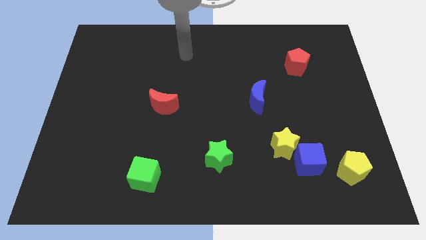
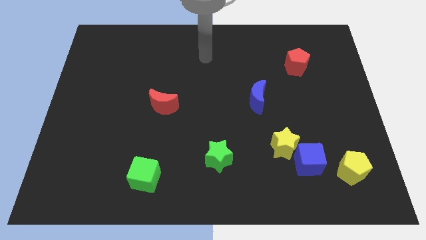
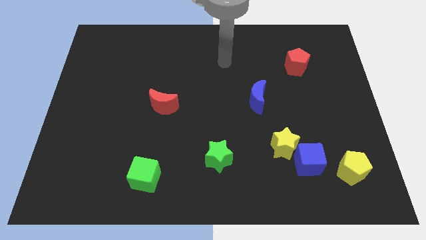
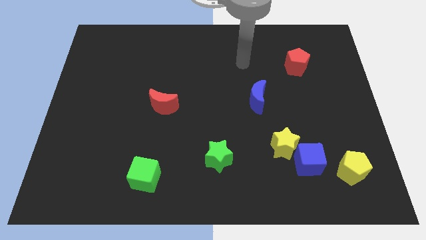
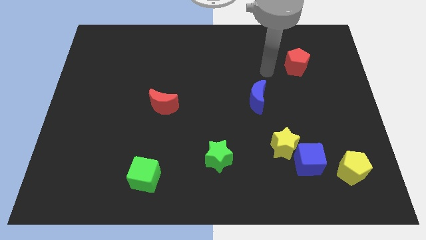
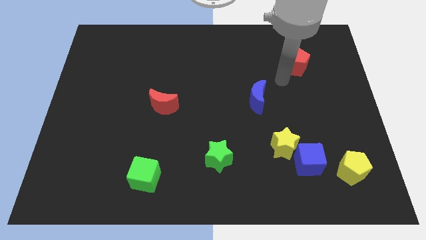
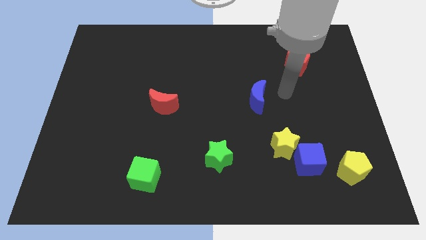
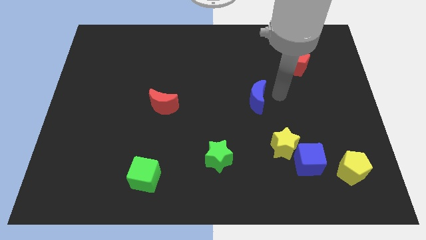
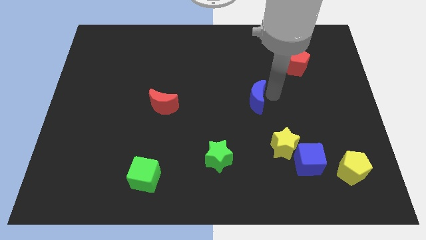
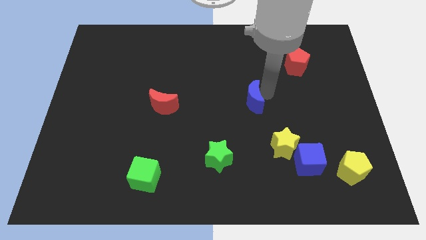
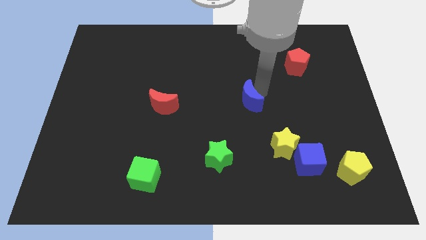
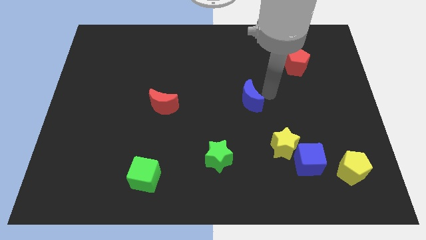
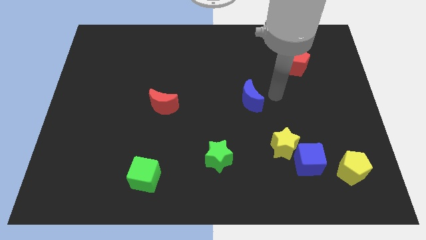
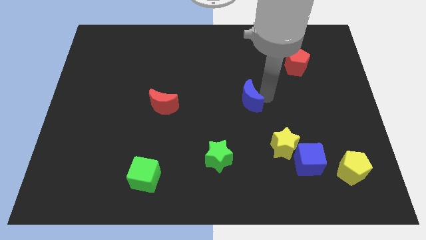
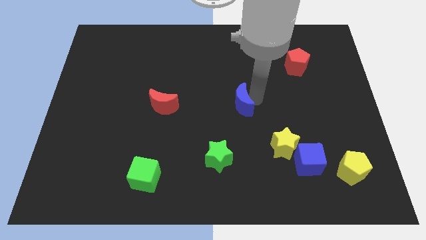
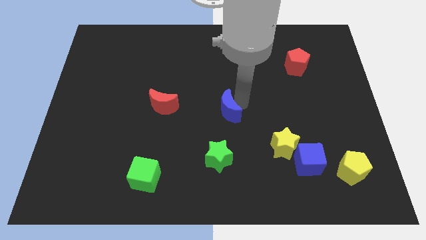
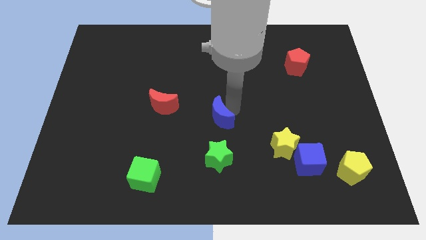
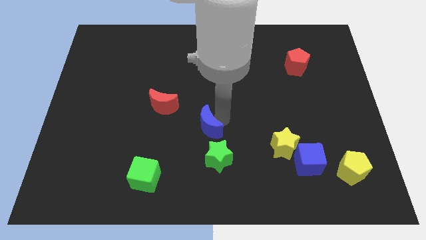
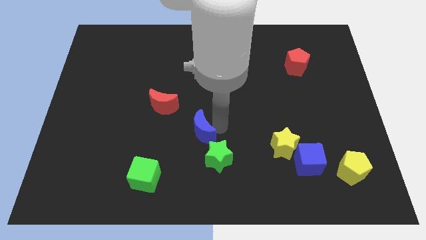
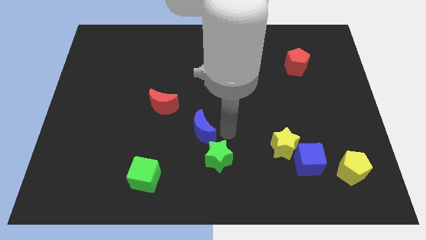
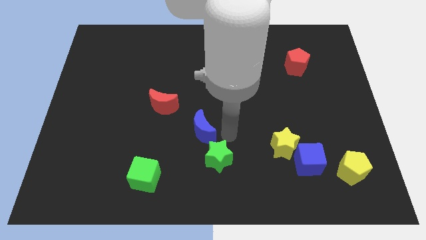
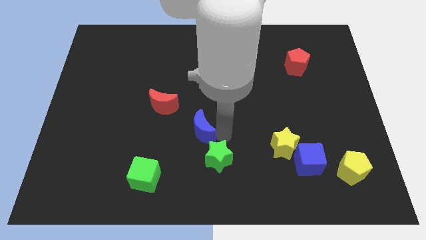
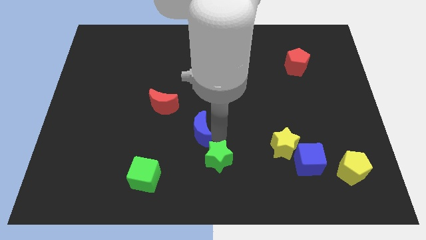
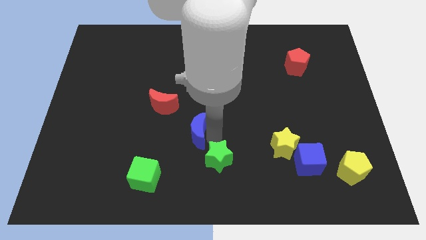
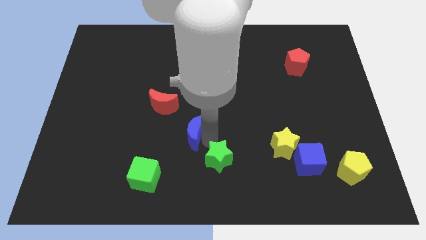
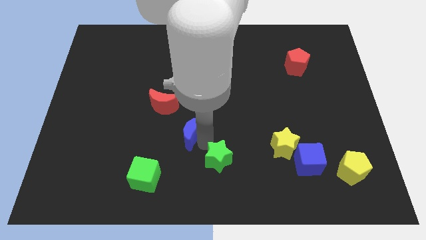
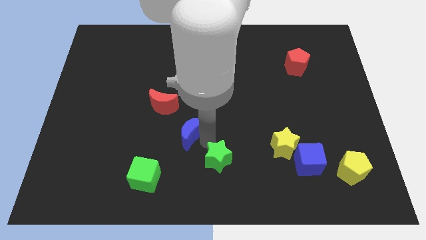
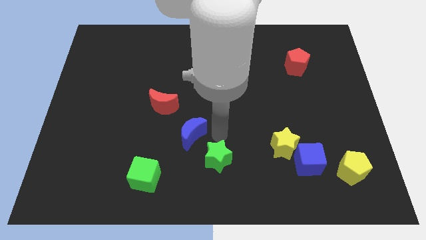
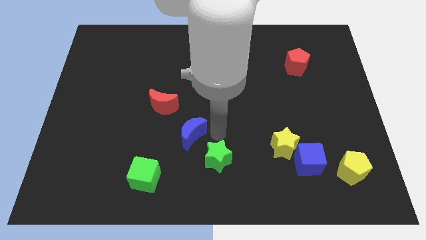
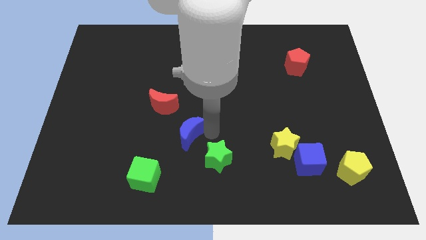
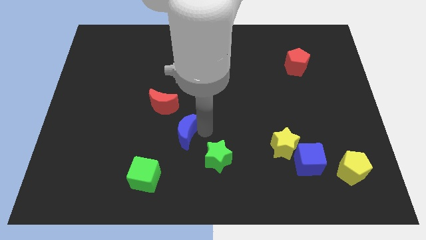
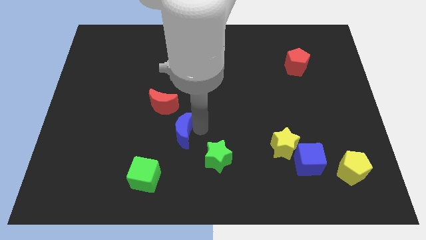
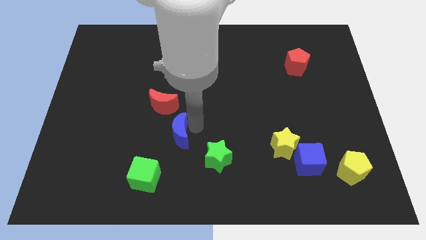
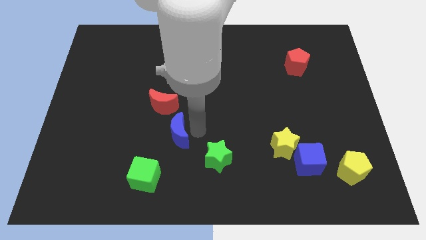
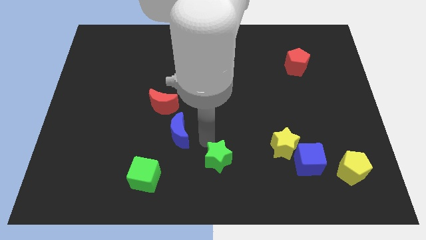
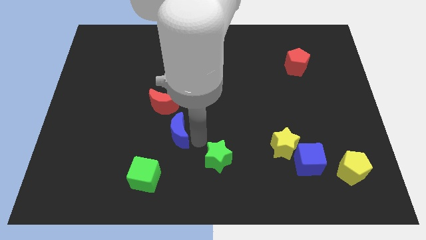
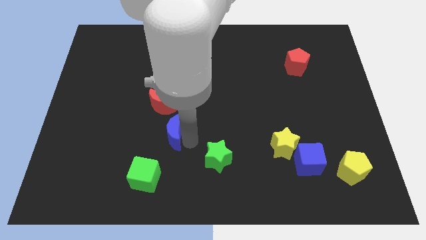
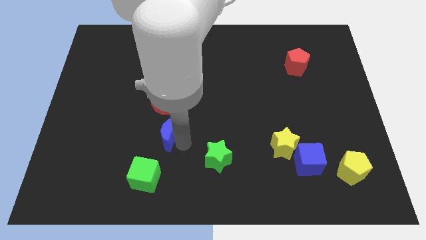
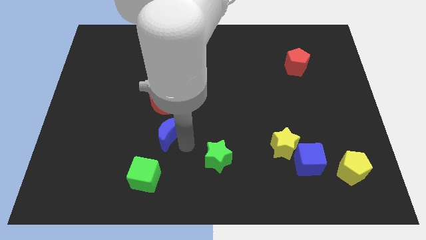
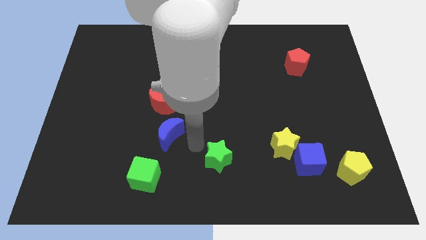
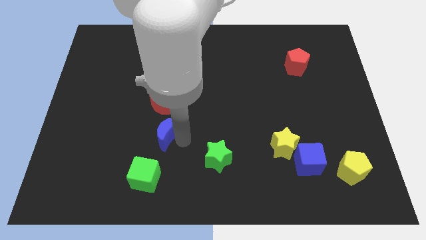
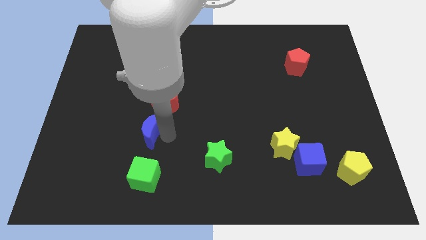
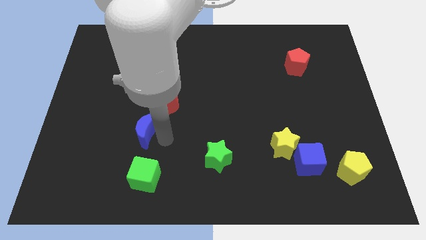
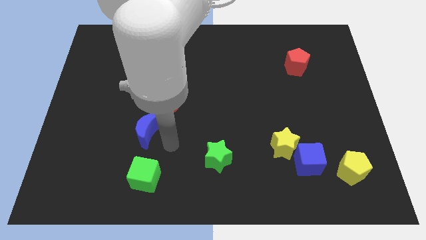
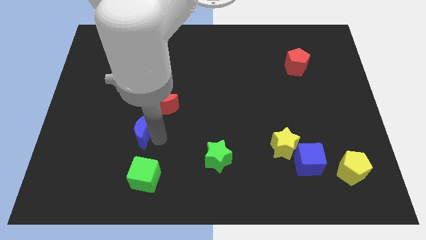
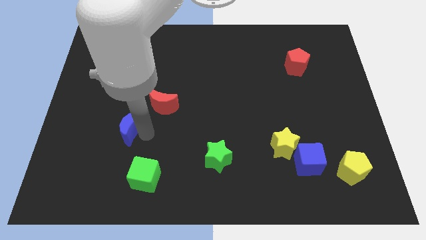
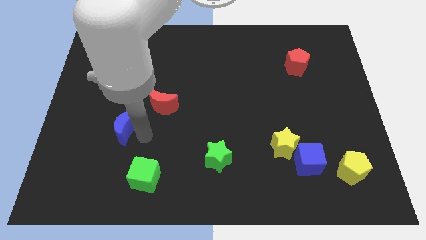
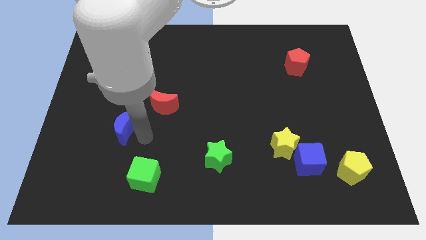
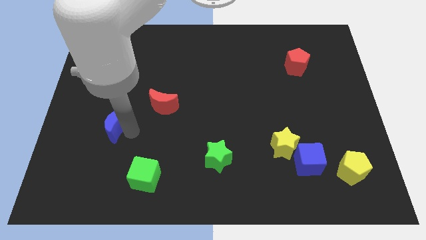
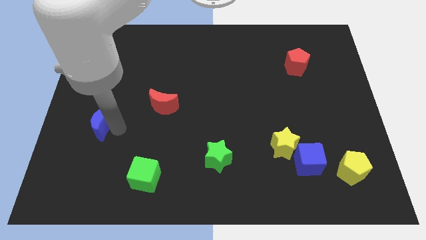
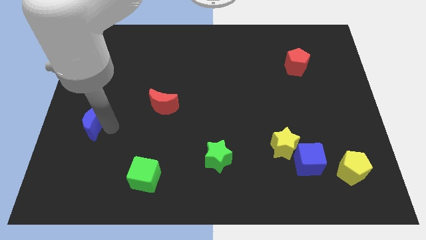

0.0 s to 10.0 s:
push the blue moon to the center left

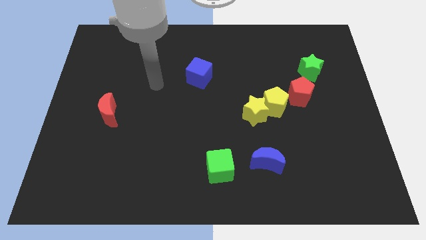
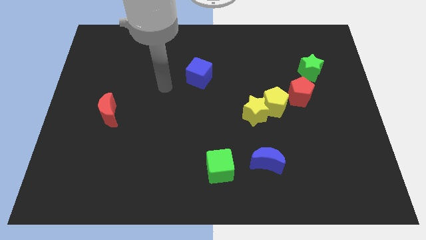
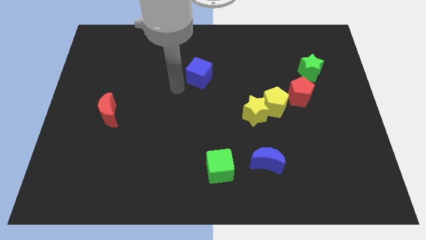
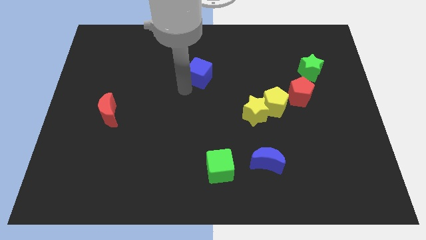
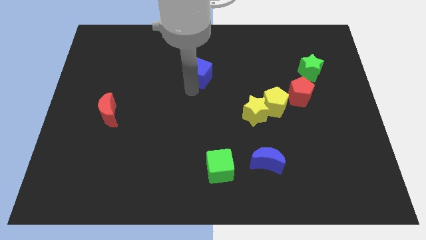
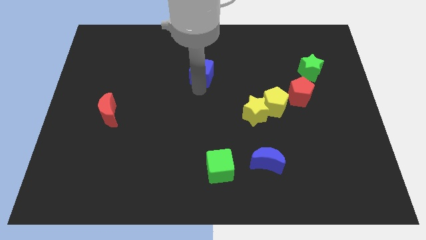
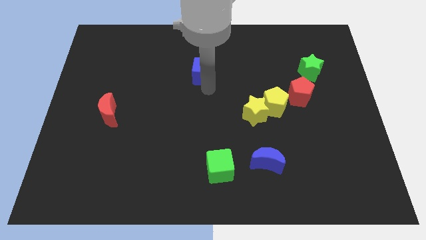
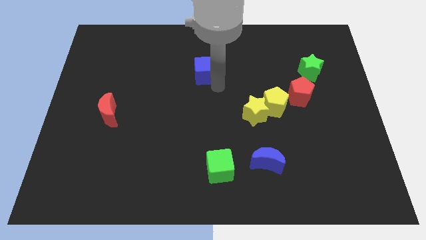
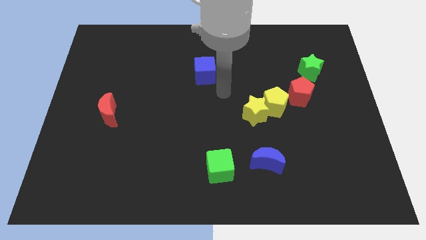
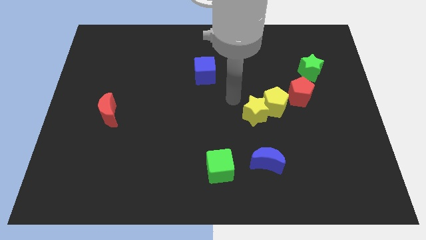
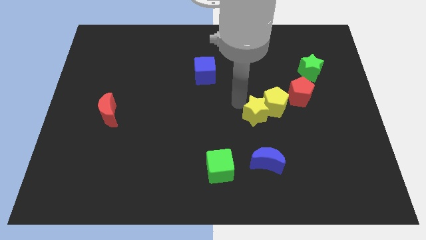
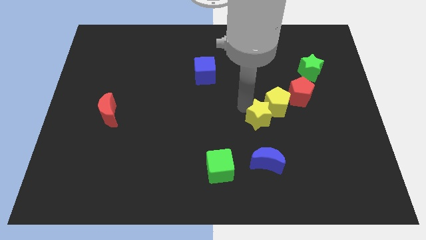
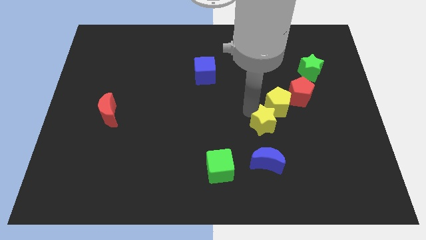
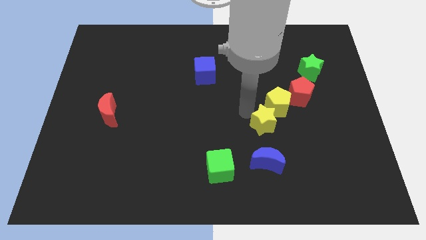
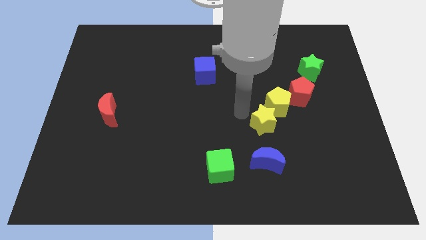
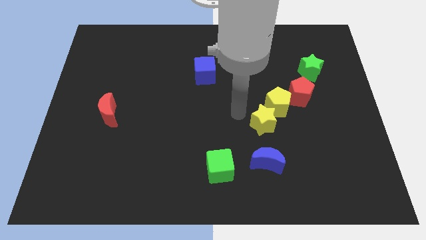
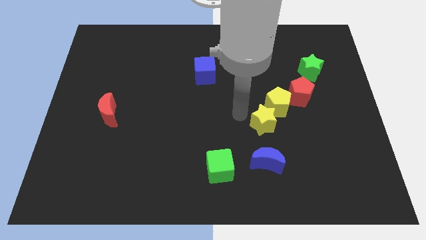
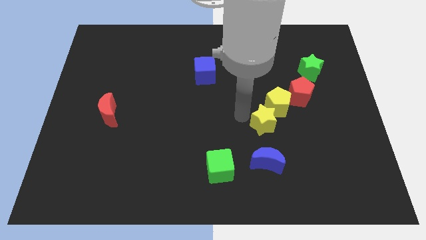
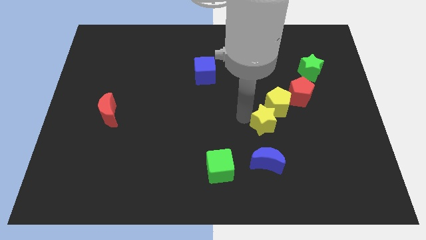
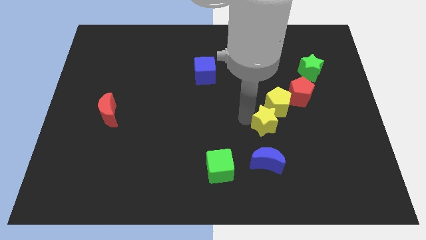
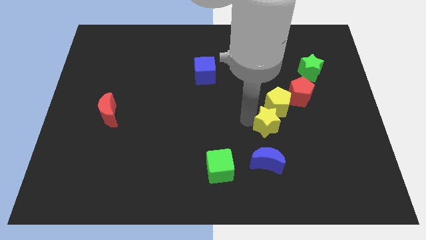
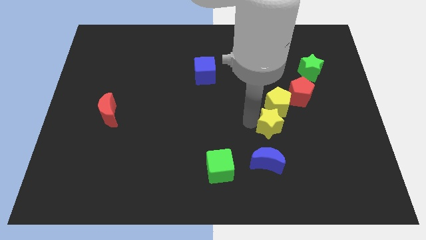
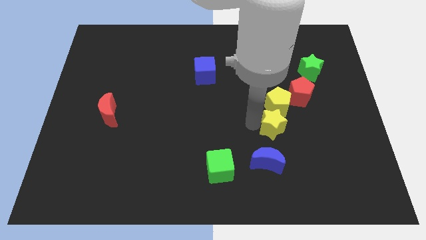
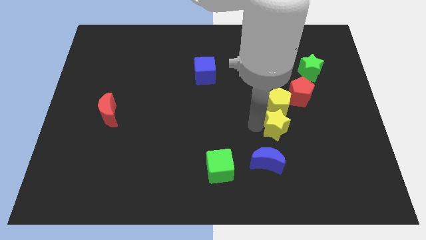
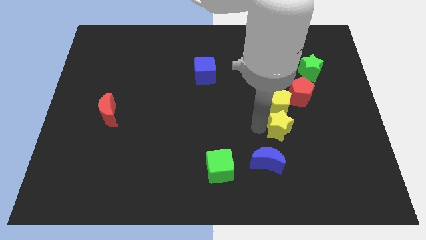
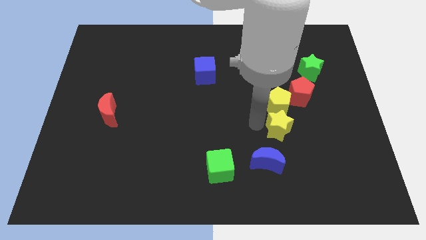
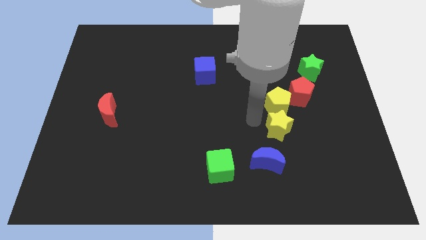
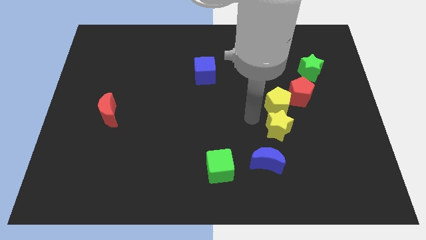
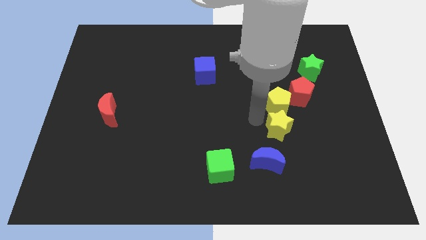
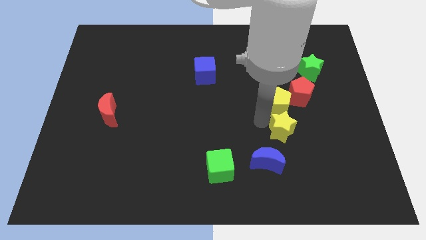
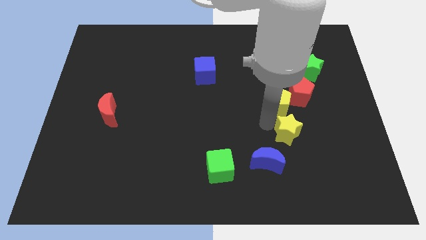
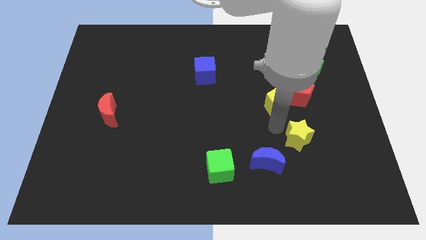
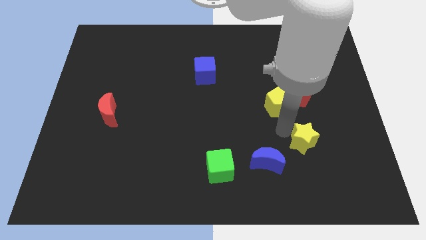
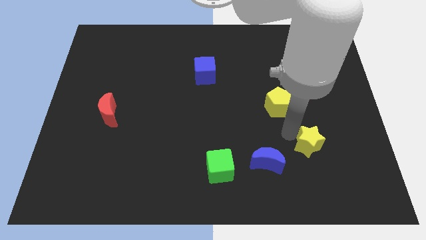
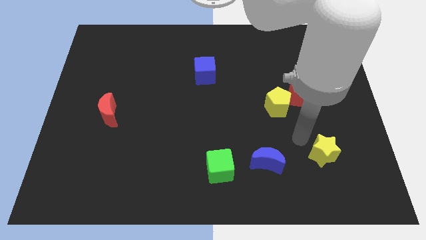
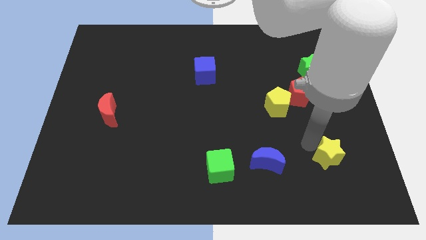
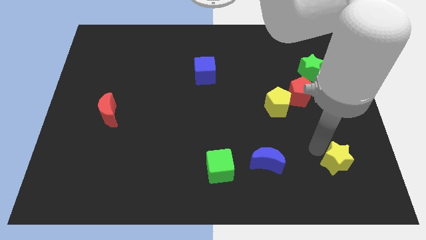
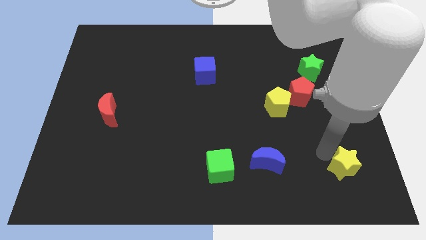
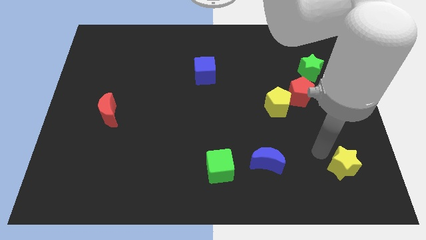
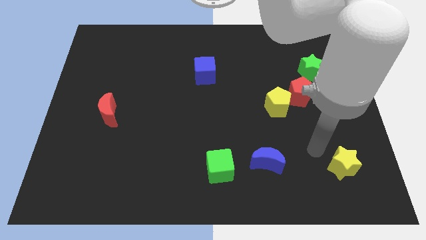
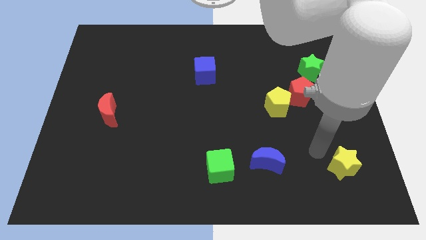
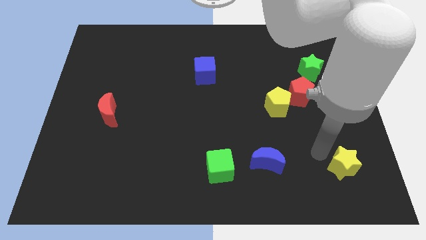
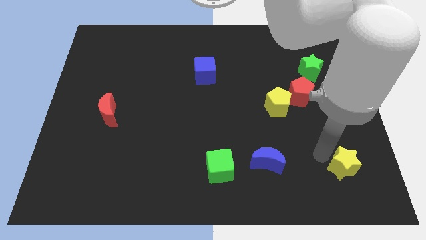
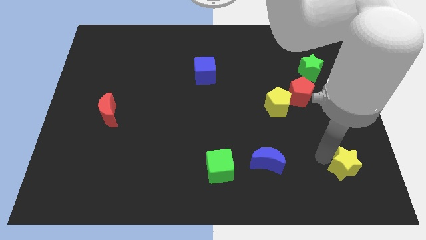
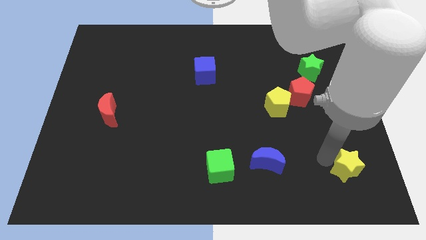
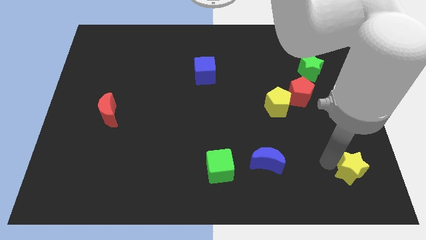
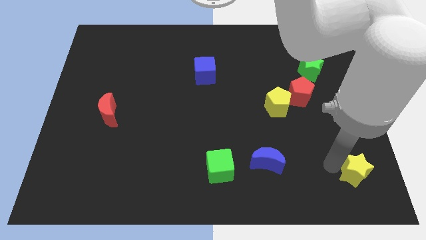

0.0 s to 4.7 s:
put the yellow star to the bottom right of the board
